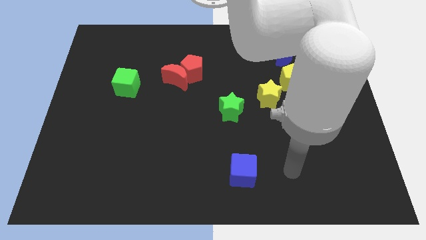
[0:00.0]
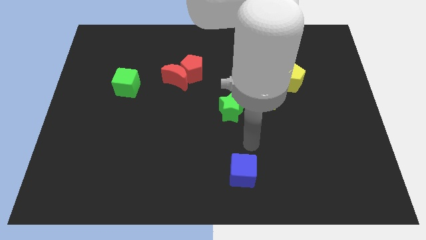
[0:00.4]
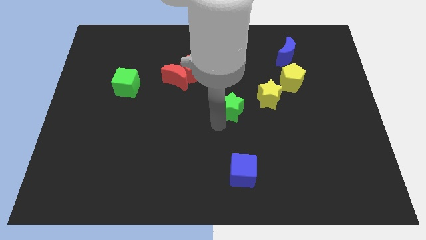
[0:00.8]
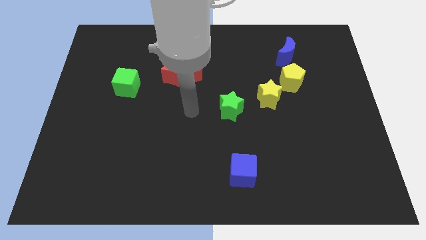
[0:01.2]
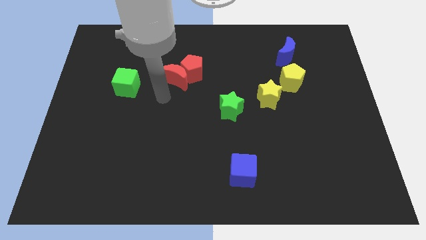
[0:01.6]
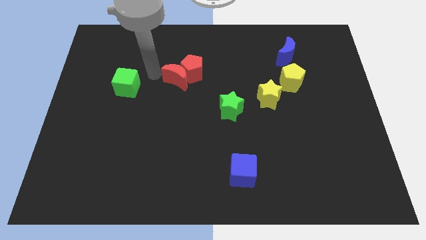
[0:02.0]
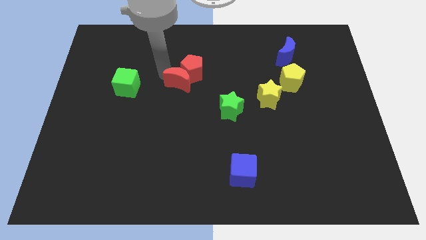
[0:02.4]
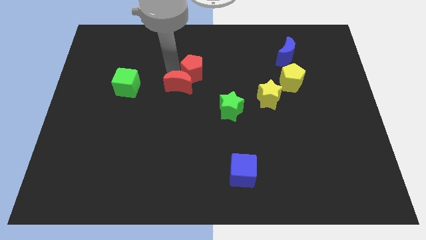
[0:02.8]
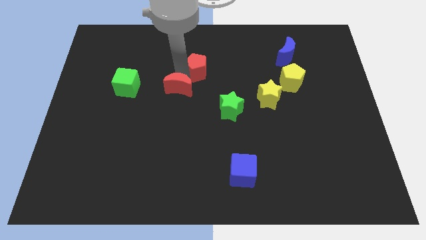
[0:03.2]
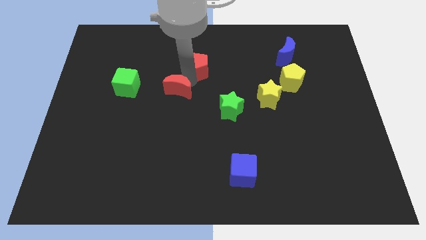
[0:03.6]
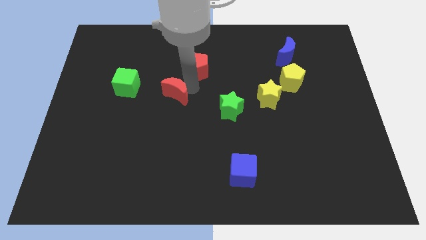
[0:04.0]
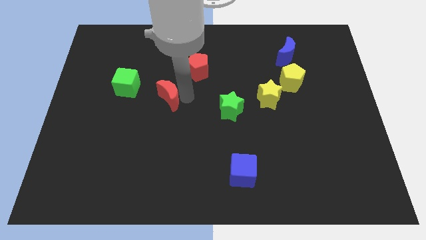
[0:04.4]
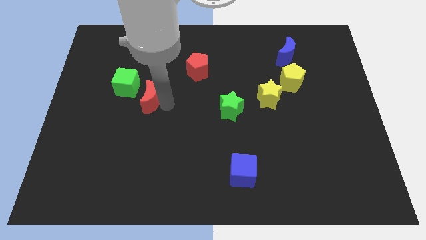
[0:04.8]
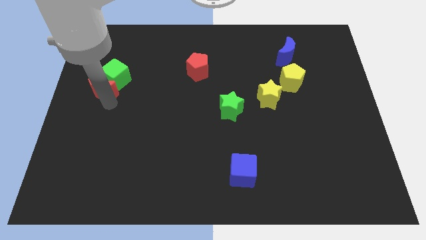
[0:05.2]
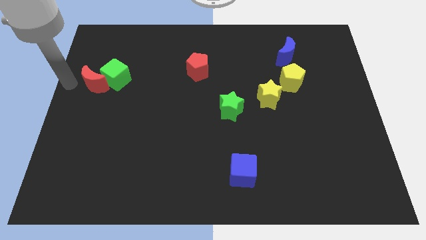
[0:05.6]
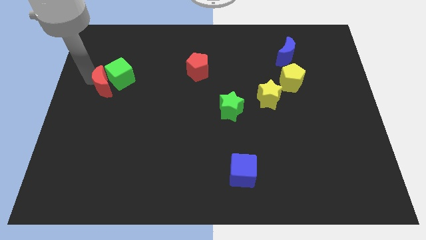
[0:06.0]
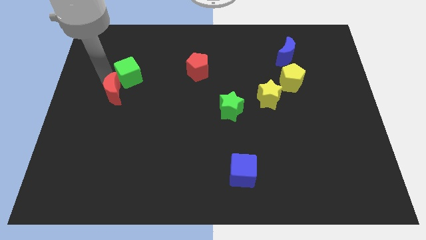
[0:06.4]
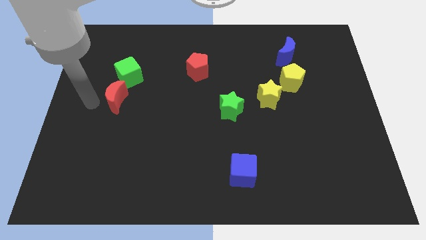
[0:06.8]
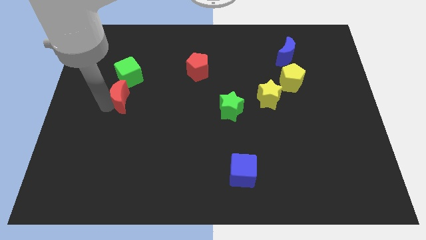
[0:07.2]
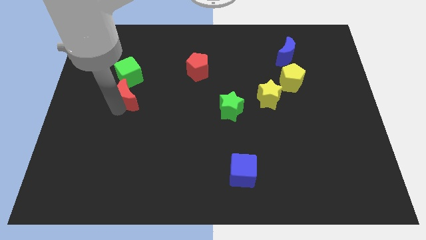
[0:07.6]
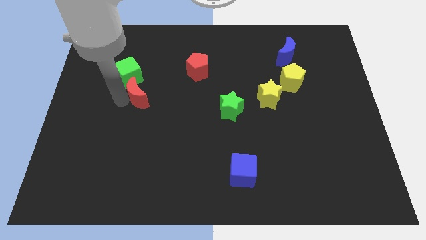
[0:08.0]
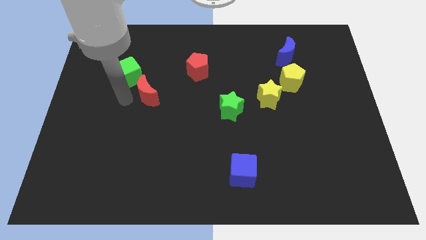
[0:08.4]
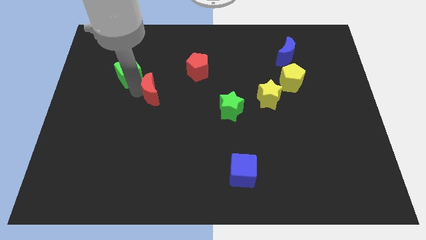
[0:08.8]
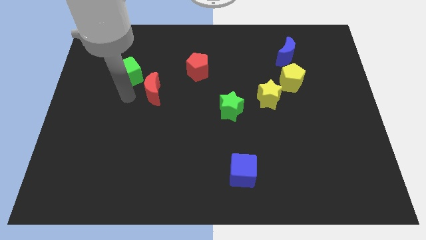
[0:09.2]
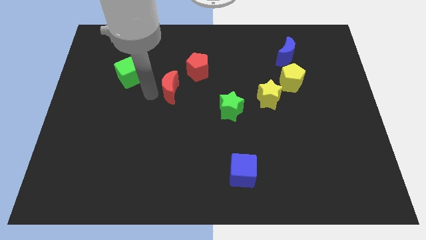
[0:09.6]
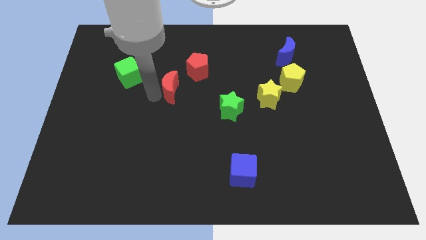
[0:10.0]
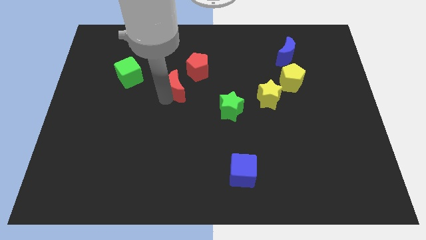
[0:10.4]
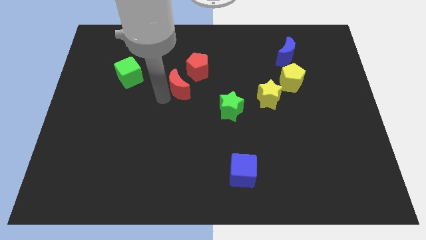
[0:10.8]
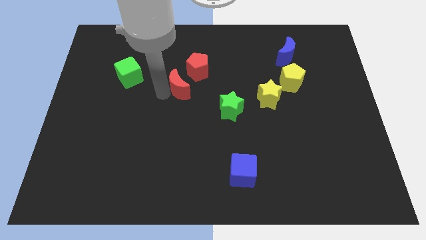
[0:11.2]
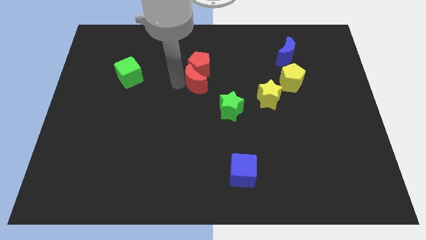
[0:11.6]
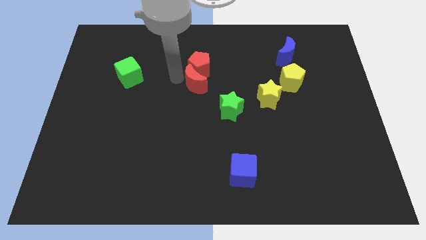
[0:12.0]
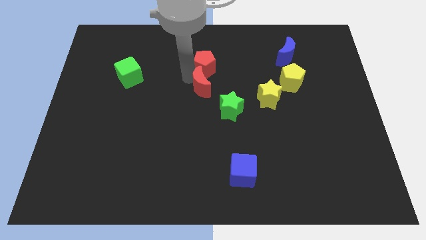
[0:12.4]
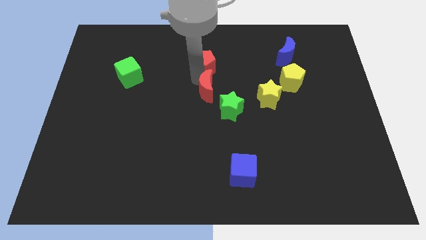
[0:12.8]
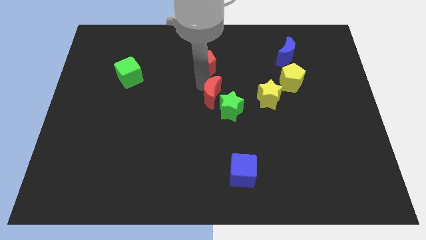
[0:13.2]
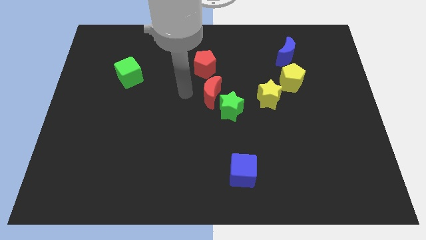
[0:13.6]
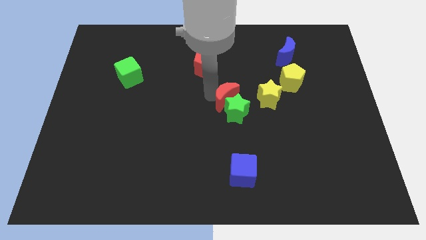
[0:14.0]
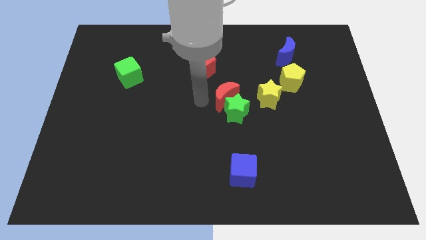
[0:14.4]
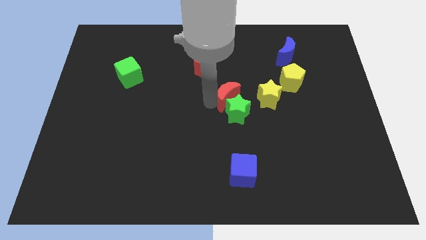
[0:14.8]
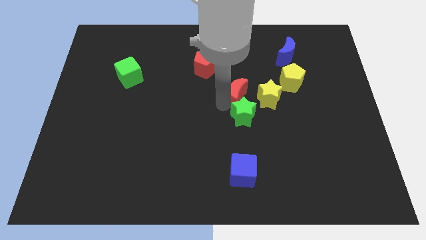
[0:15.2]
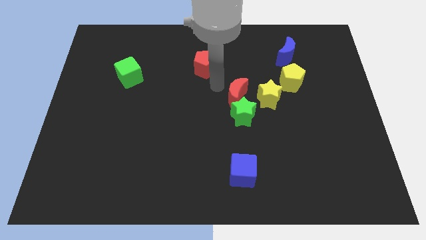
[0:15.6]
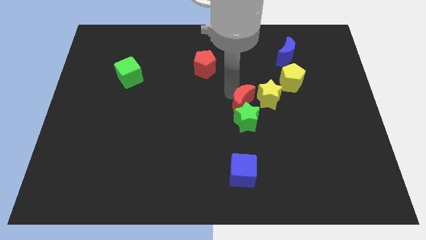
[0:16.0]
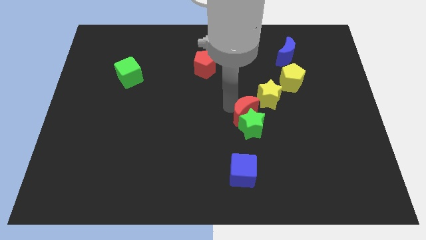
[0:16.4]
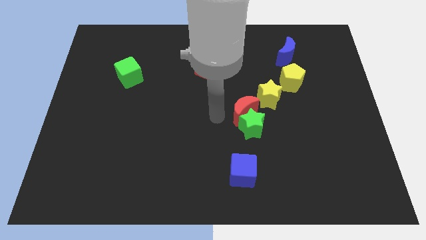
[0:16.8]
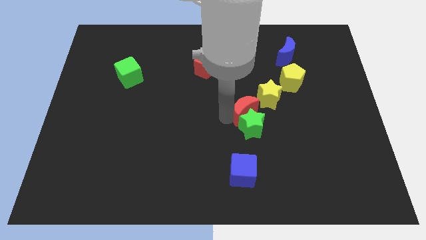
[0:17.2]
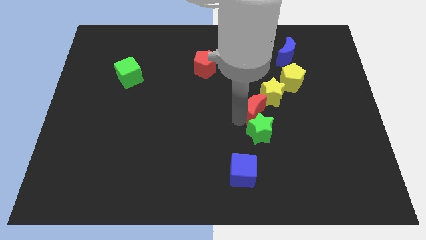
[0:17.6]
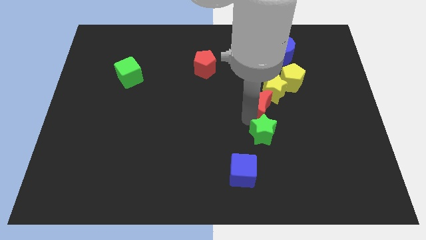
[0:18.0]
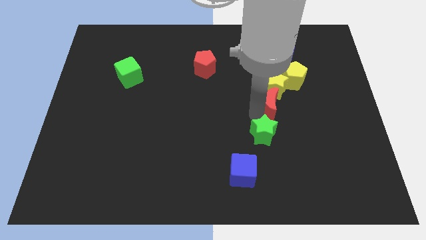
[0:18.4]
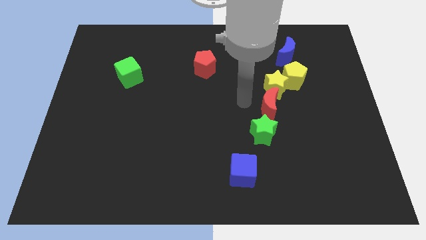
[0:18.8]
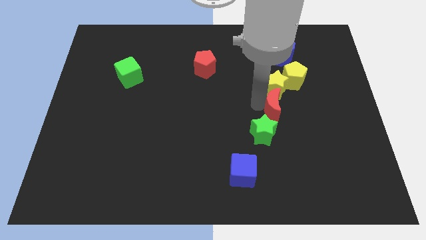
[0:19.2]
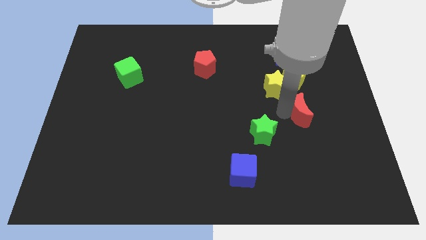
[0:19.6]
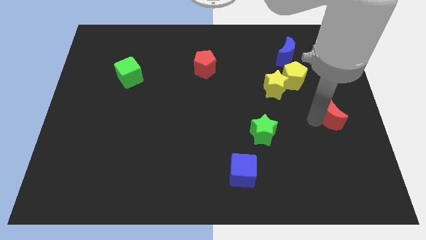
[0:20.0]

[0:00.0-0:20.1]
put the red moon to the right side of the board

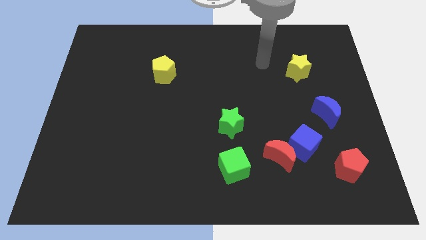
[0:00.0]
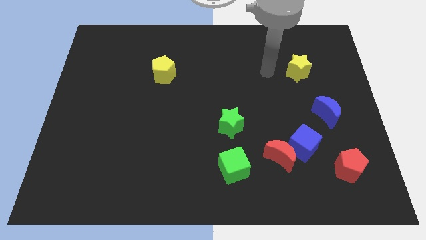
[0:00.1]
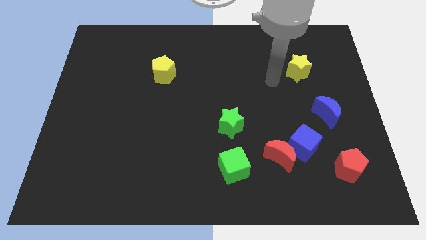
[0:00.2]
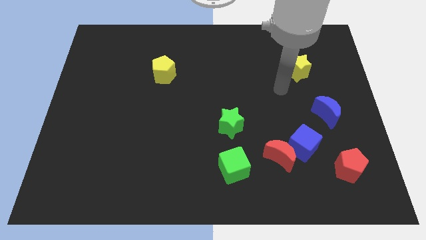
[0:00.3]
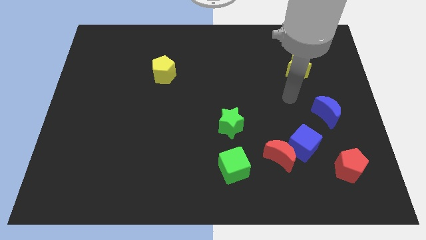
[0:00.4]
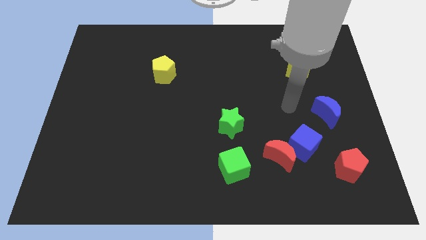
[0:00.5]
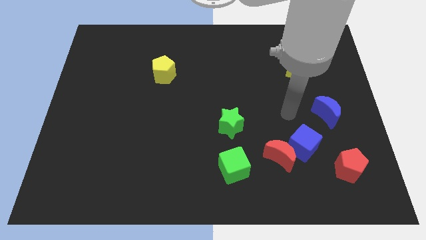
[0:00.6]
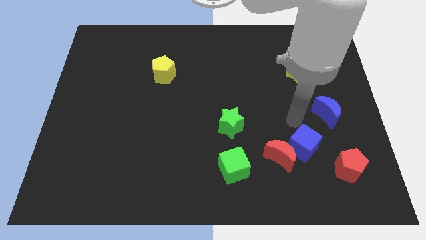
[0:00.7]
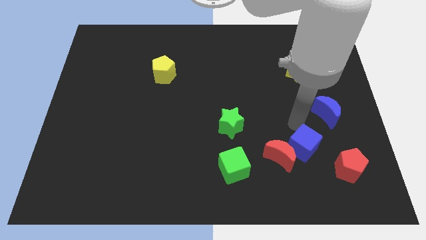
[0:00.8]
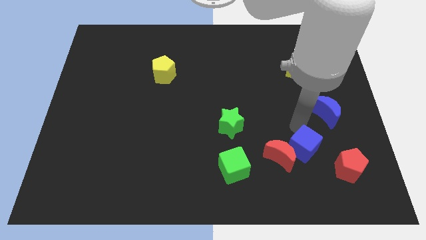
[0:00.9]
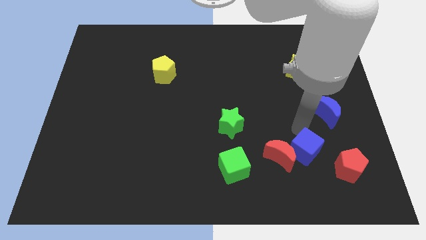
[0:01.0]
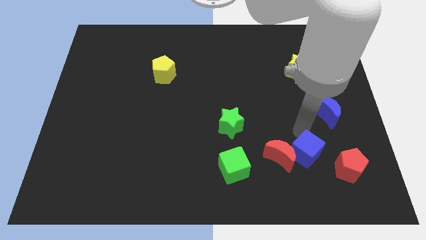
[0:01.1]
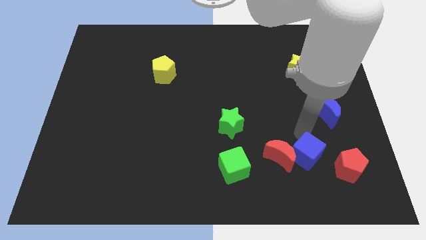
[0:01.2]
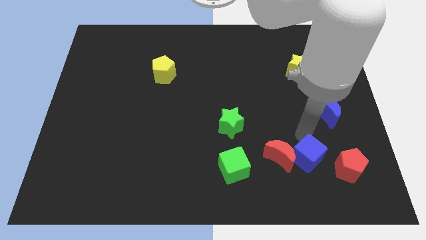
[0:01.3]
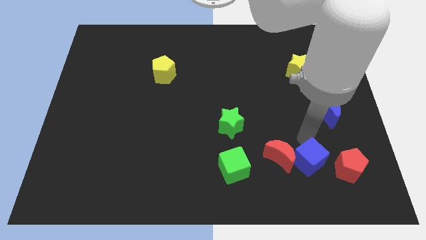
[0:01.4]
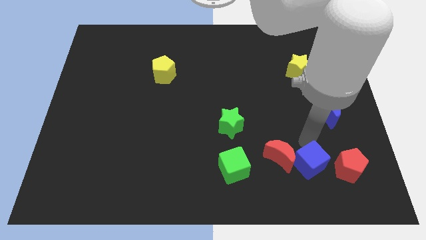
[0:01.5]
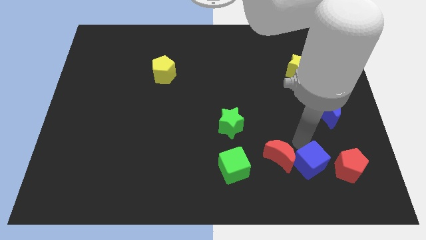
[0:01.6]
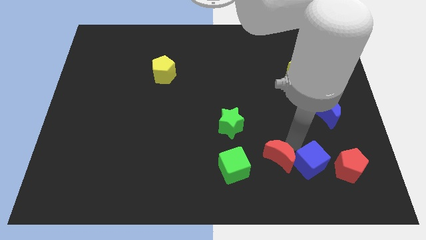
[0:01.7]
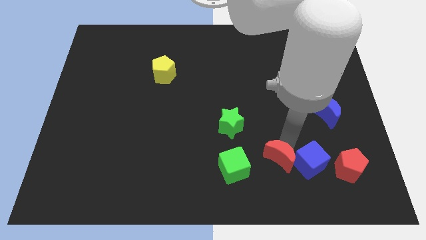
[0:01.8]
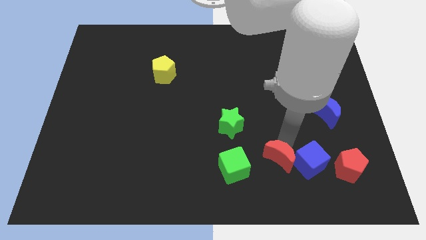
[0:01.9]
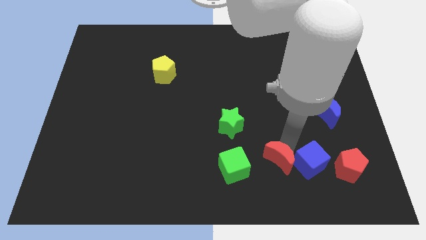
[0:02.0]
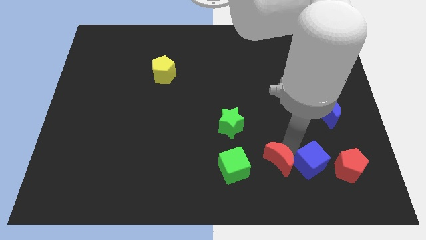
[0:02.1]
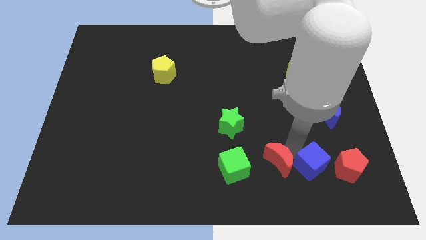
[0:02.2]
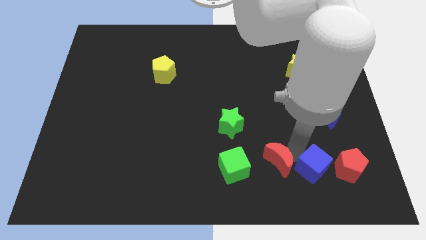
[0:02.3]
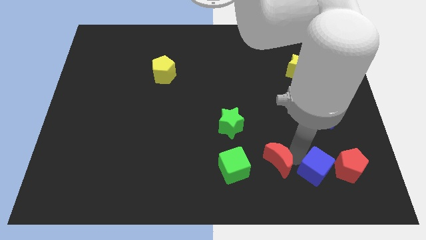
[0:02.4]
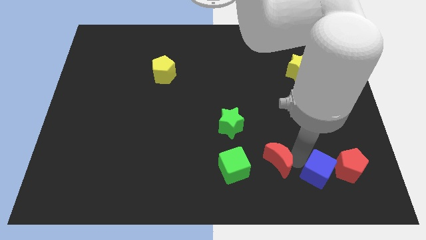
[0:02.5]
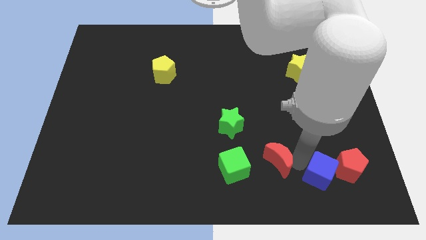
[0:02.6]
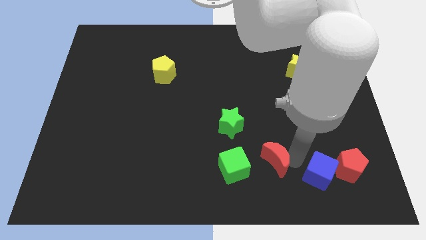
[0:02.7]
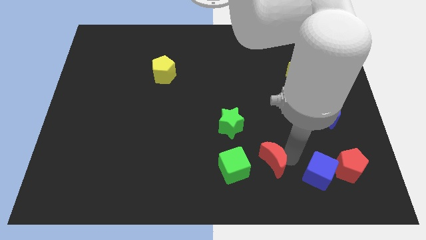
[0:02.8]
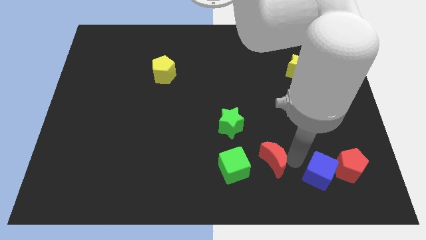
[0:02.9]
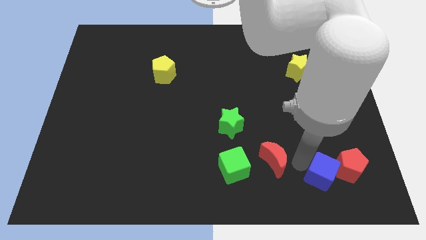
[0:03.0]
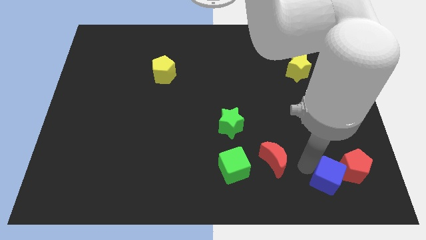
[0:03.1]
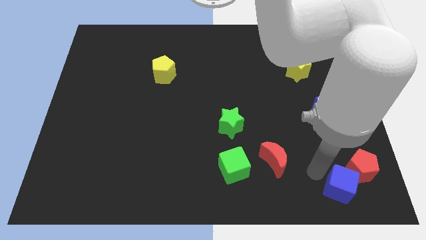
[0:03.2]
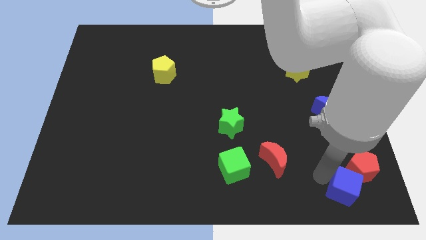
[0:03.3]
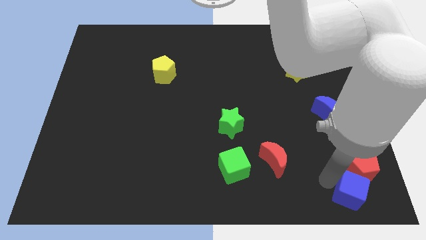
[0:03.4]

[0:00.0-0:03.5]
put the blue cube to the lower right corner
